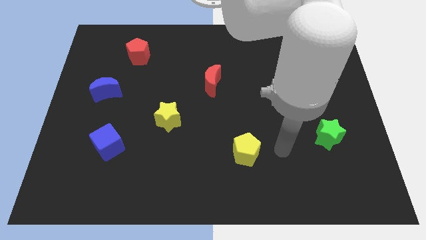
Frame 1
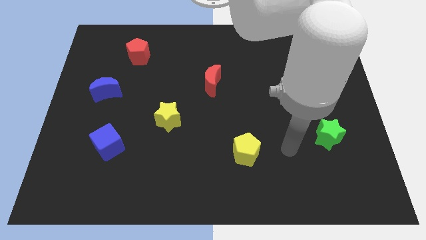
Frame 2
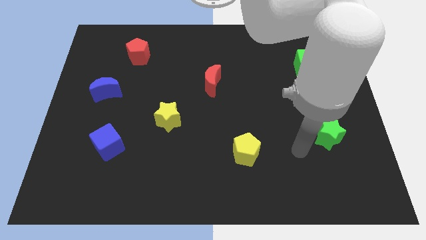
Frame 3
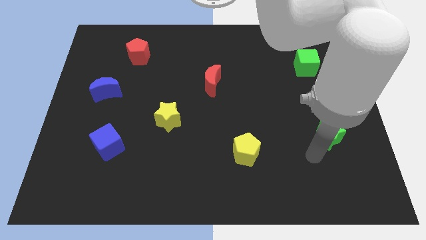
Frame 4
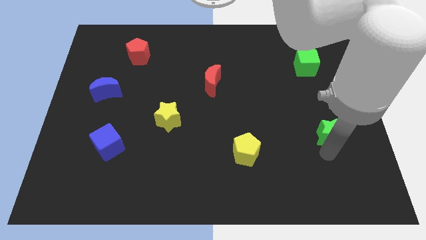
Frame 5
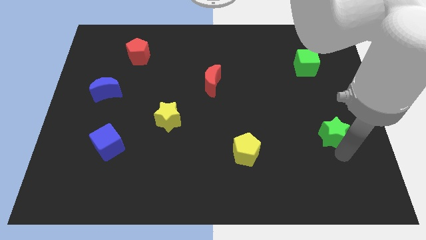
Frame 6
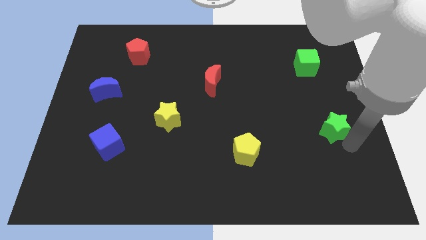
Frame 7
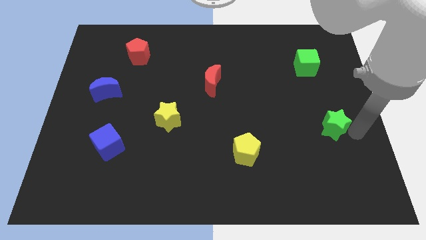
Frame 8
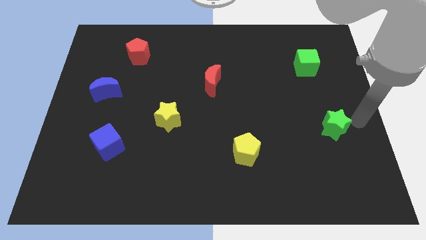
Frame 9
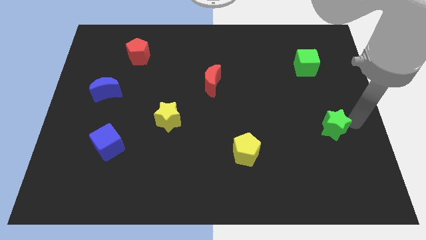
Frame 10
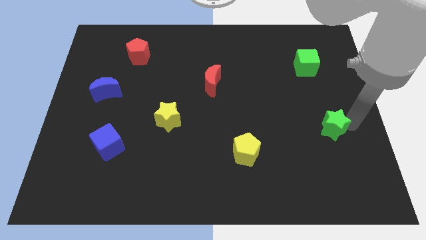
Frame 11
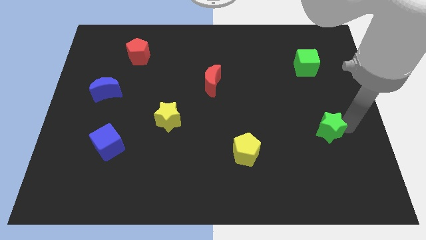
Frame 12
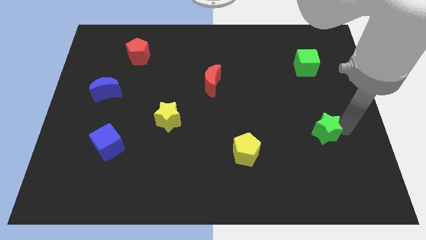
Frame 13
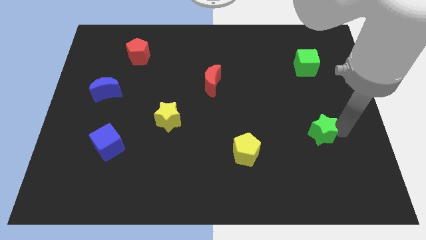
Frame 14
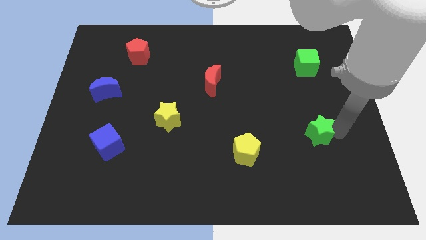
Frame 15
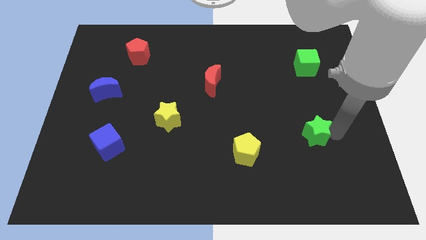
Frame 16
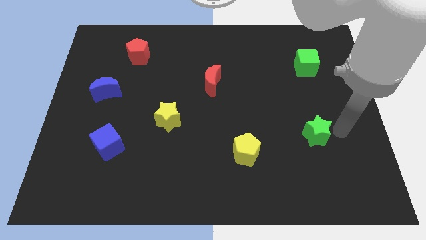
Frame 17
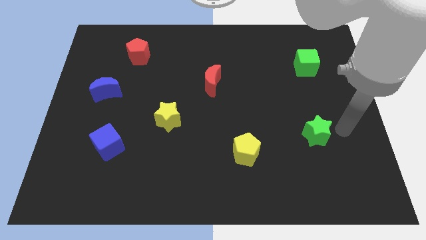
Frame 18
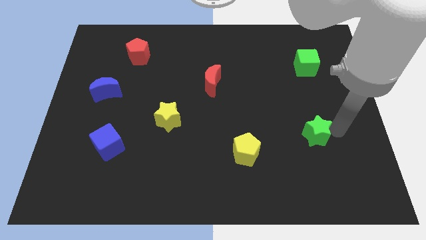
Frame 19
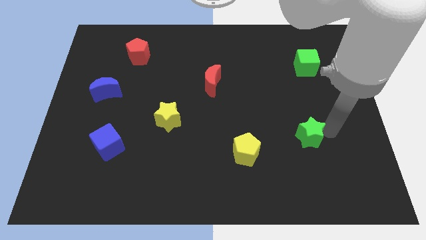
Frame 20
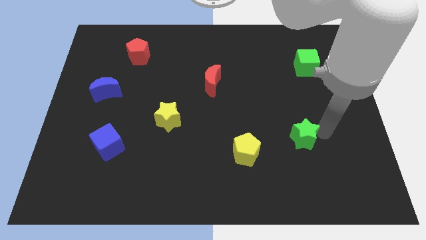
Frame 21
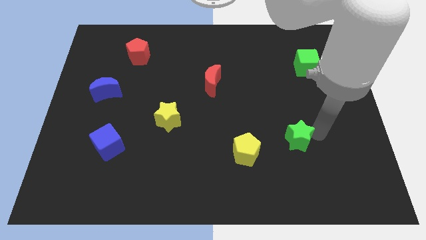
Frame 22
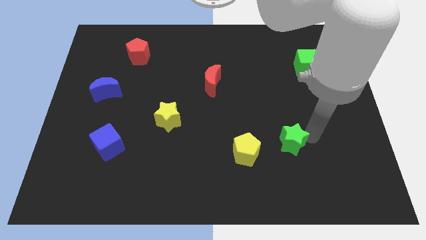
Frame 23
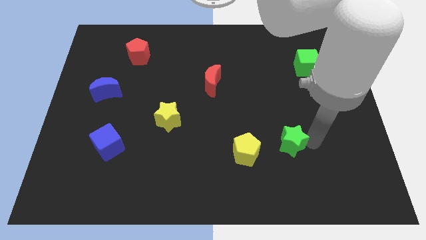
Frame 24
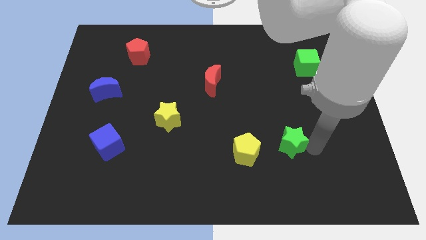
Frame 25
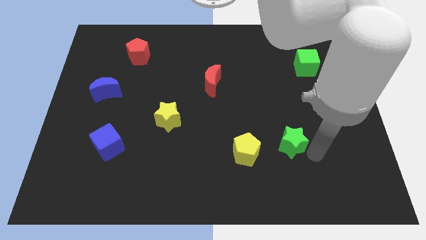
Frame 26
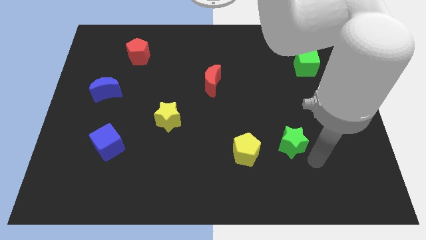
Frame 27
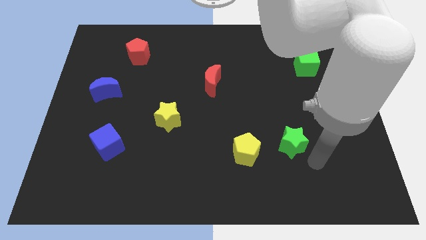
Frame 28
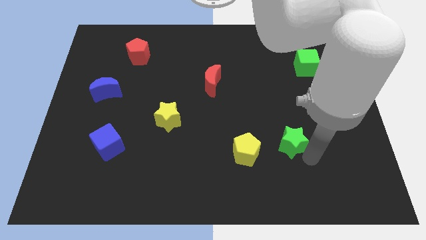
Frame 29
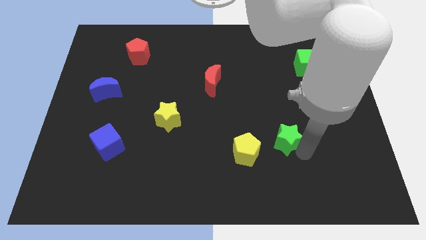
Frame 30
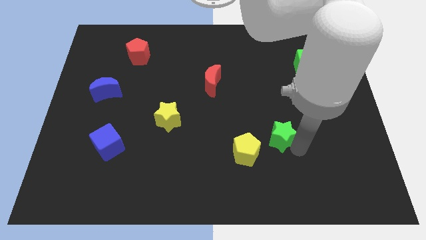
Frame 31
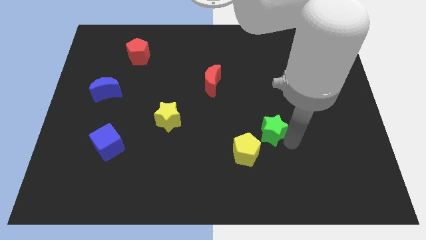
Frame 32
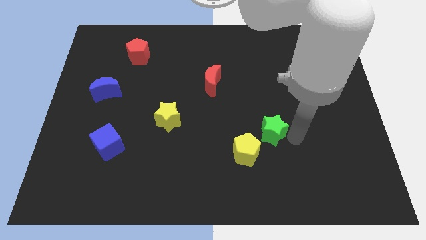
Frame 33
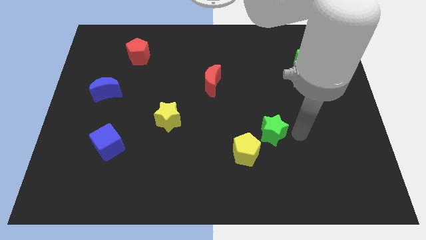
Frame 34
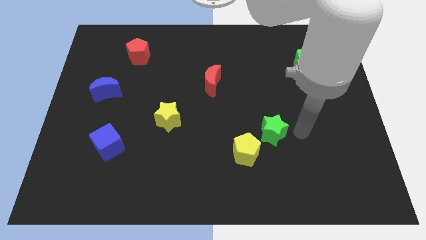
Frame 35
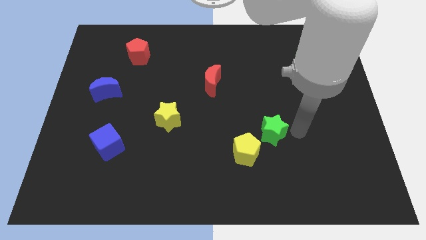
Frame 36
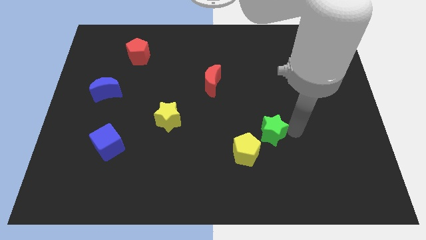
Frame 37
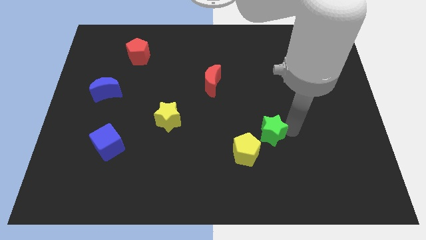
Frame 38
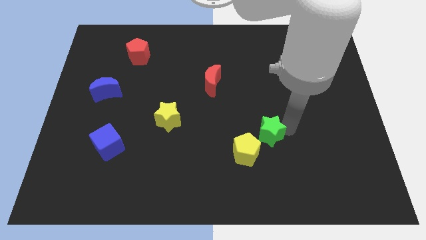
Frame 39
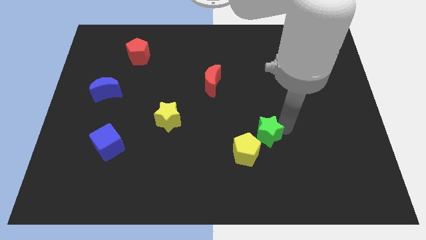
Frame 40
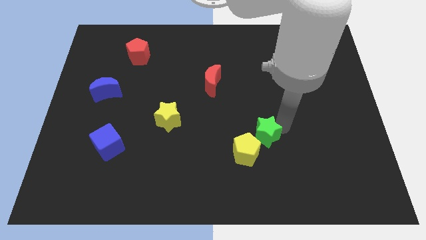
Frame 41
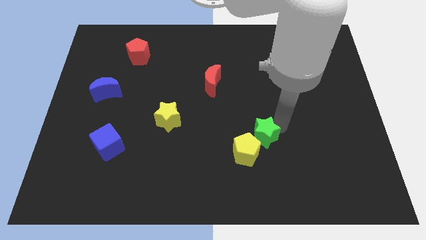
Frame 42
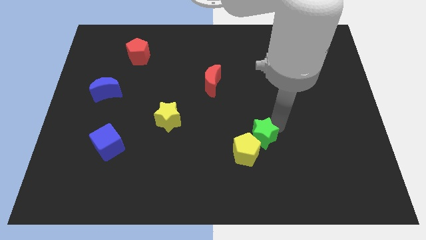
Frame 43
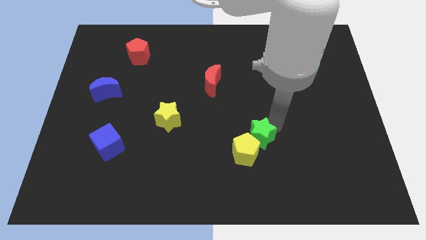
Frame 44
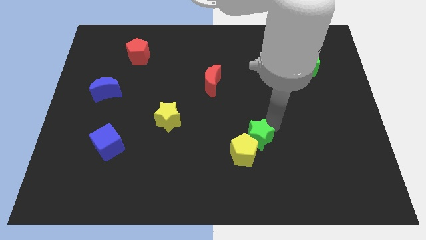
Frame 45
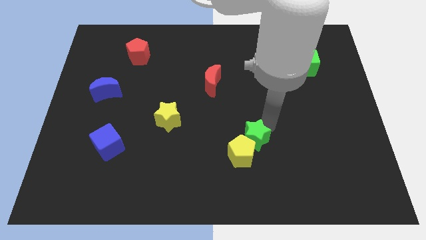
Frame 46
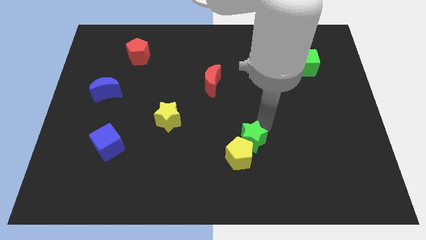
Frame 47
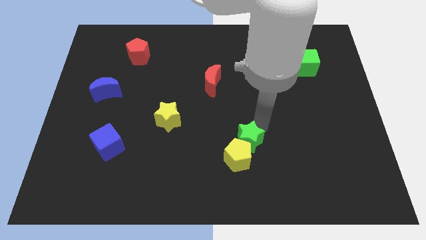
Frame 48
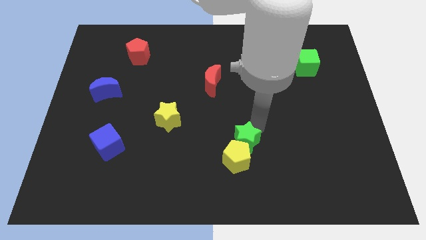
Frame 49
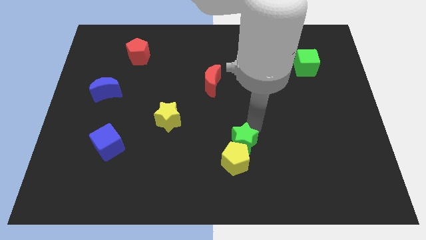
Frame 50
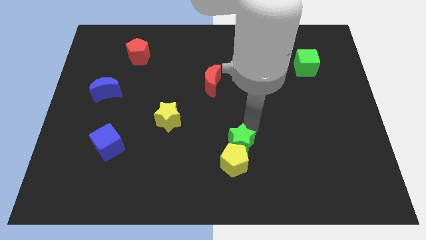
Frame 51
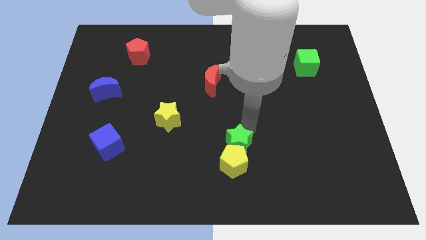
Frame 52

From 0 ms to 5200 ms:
push the green star to the left

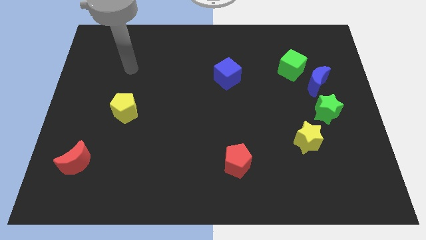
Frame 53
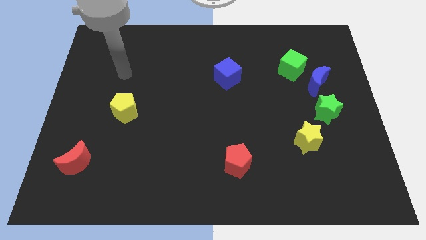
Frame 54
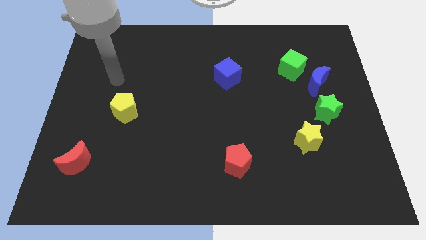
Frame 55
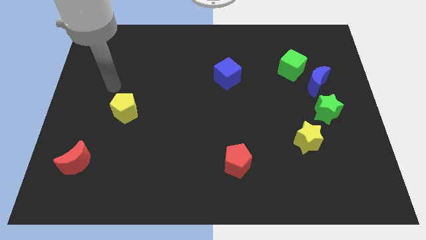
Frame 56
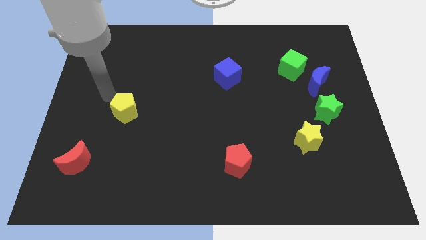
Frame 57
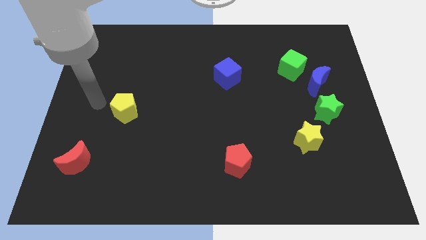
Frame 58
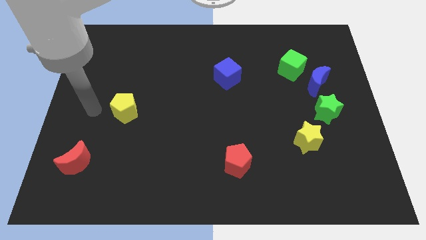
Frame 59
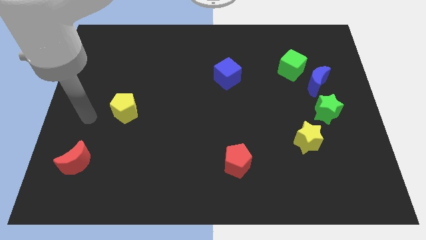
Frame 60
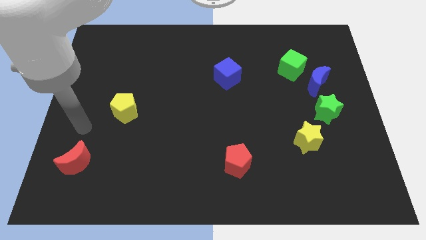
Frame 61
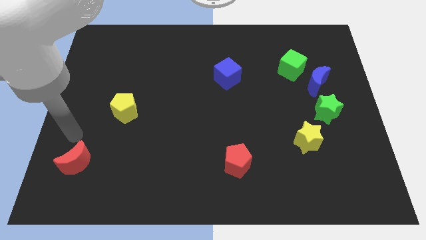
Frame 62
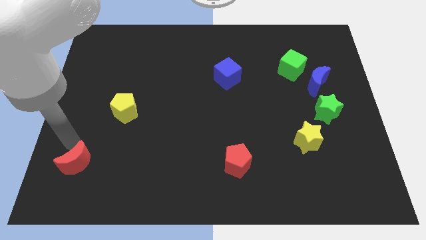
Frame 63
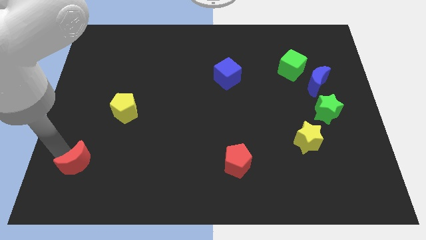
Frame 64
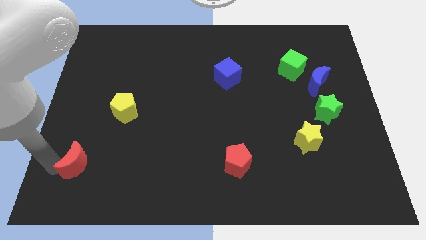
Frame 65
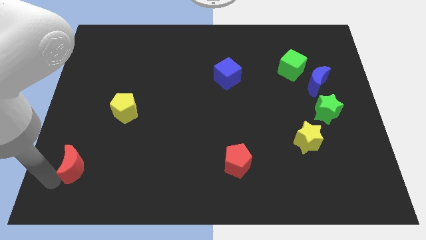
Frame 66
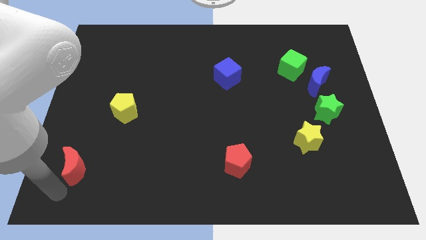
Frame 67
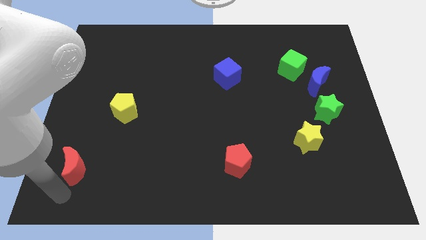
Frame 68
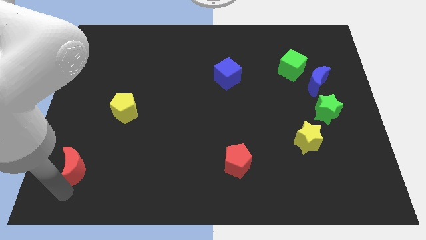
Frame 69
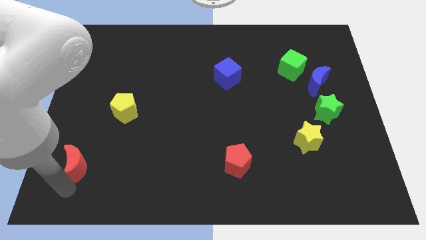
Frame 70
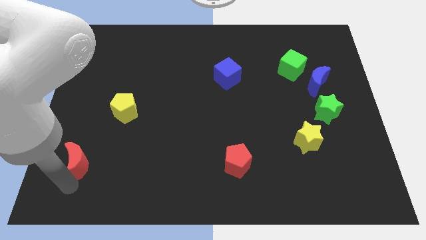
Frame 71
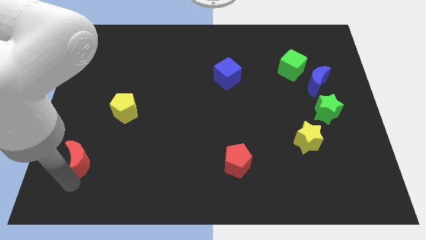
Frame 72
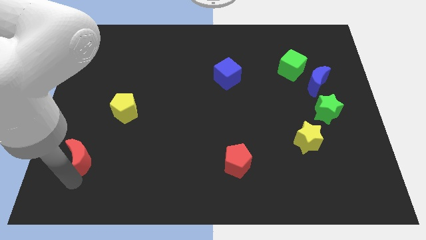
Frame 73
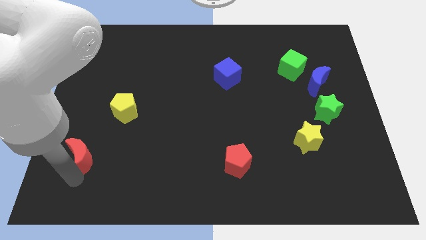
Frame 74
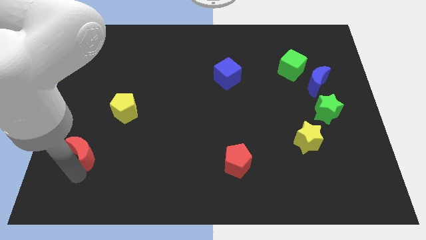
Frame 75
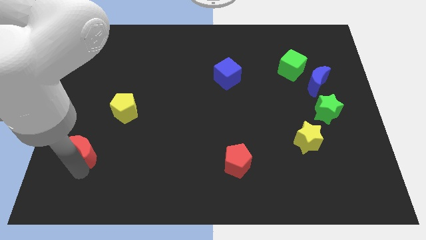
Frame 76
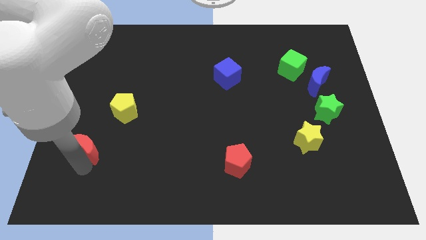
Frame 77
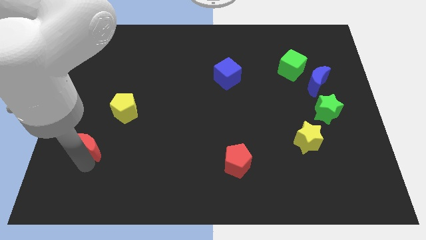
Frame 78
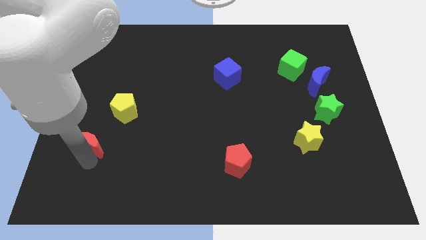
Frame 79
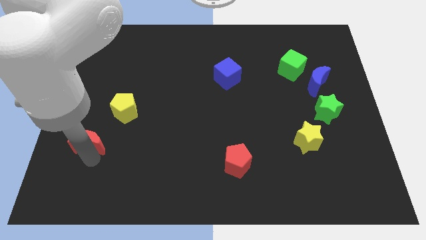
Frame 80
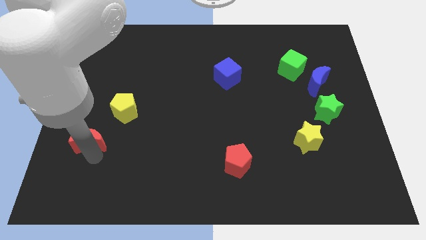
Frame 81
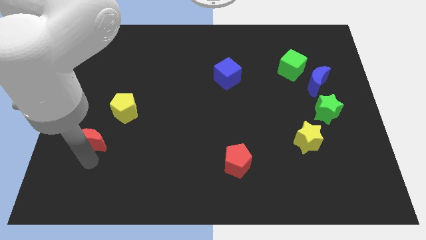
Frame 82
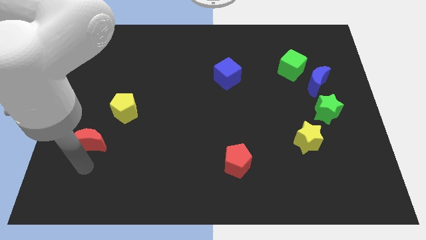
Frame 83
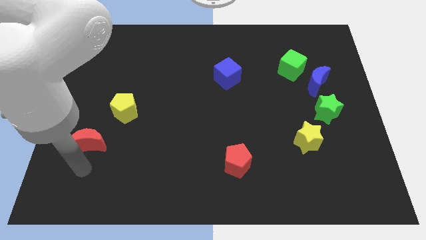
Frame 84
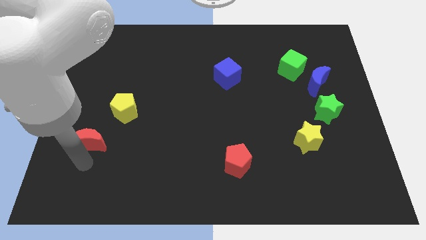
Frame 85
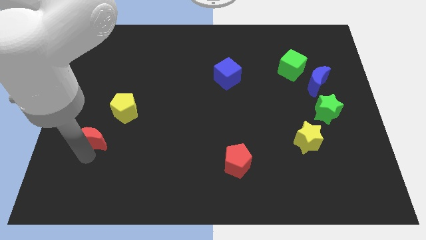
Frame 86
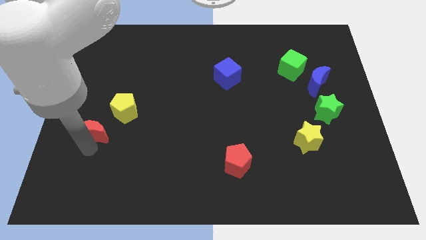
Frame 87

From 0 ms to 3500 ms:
push the red moon up a bit
